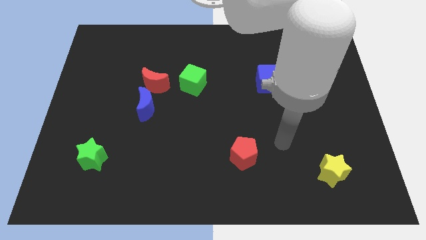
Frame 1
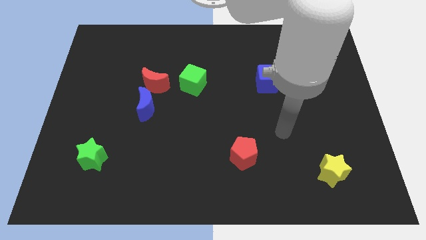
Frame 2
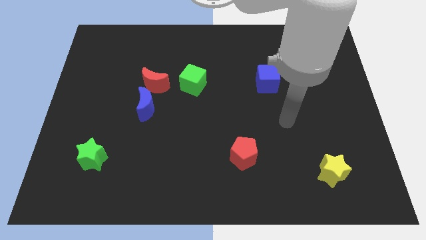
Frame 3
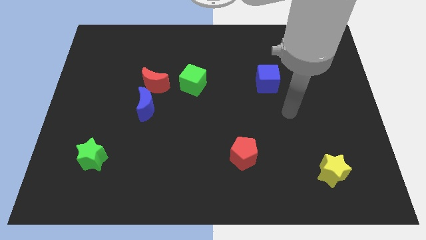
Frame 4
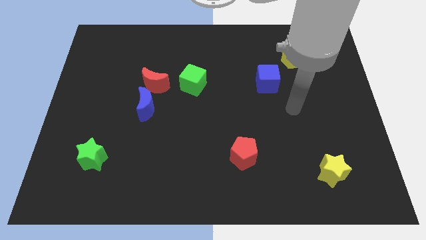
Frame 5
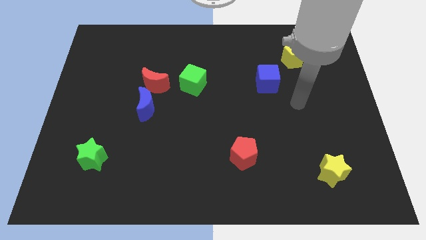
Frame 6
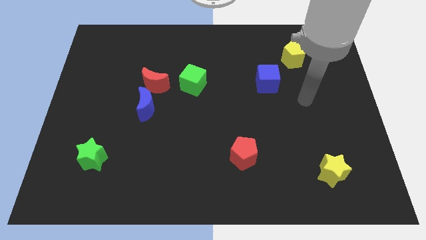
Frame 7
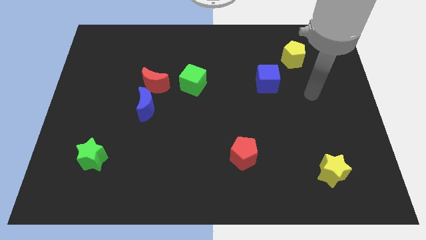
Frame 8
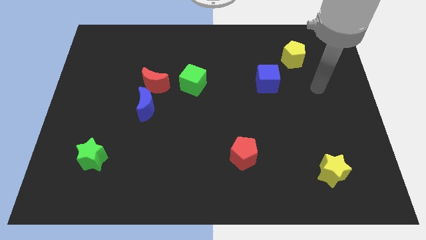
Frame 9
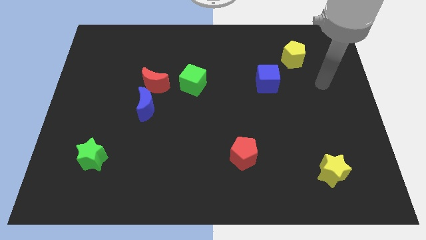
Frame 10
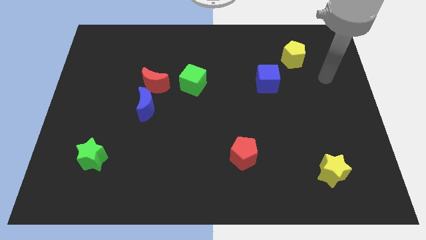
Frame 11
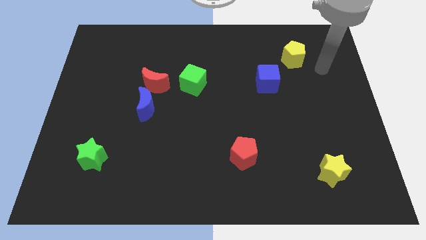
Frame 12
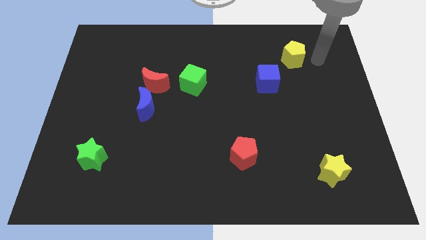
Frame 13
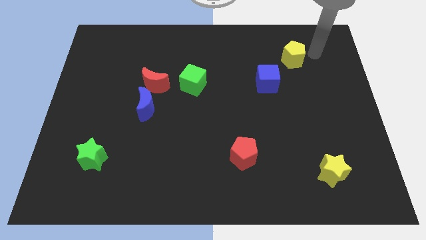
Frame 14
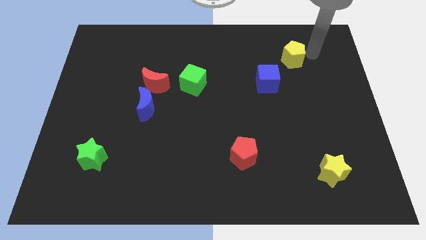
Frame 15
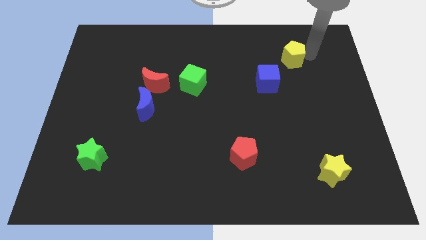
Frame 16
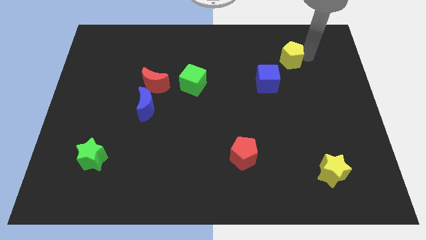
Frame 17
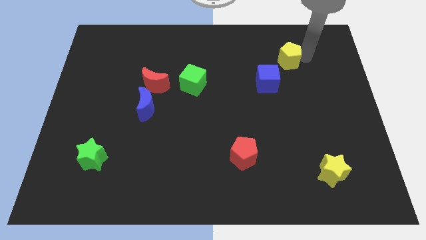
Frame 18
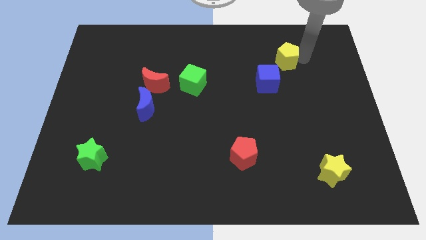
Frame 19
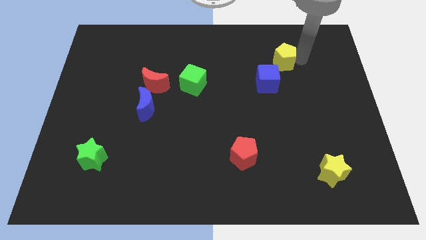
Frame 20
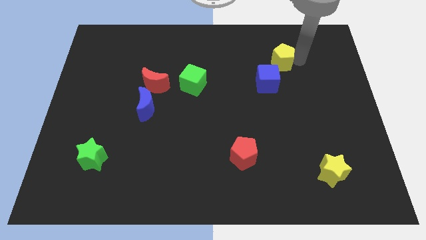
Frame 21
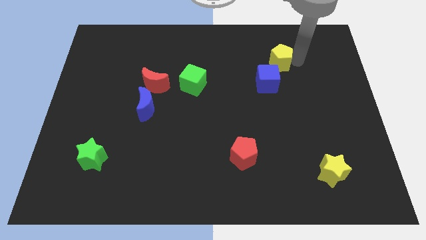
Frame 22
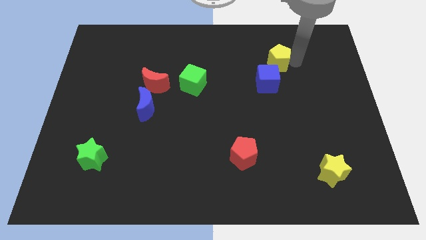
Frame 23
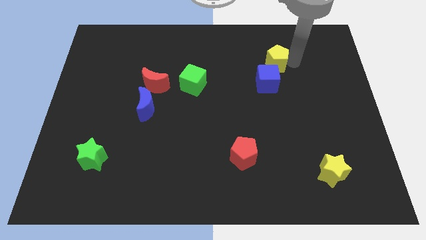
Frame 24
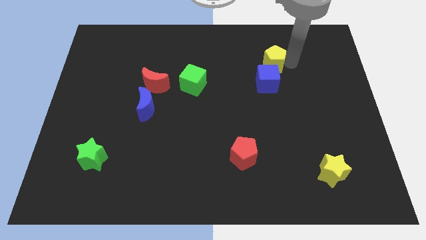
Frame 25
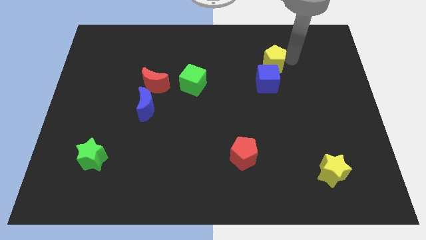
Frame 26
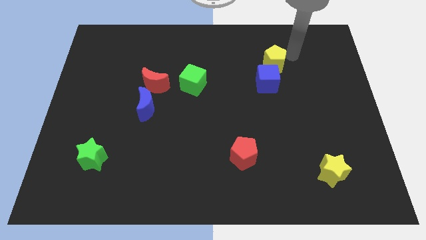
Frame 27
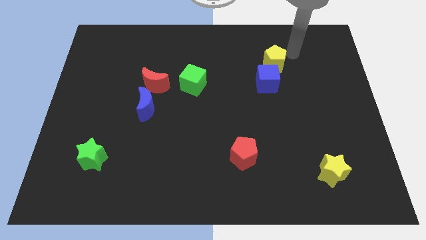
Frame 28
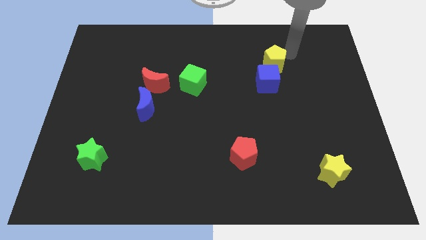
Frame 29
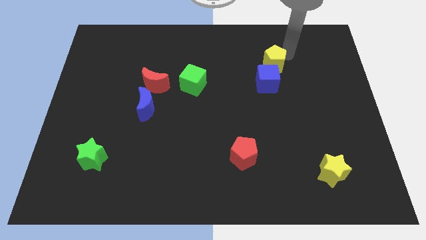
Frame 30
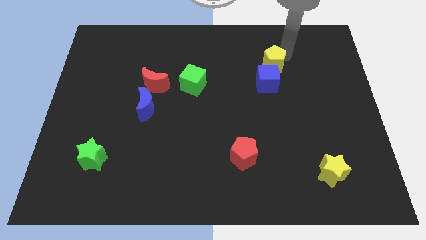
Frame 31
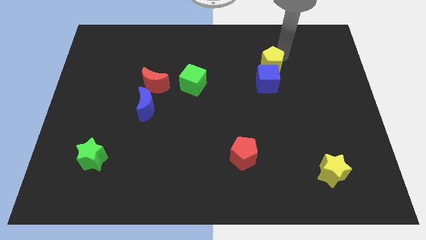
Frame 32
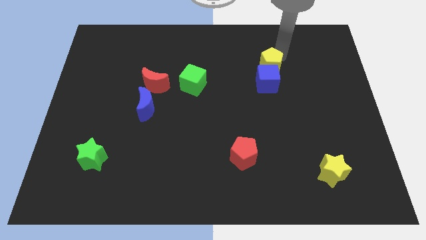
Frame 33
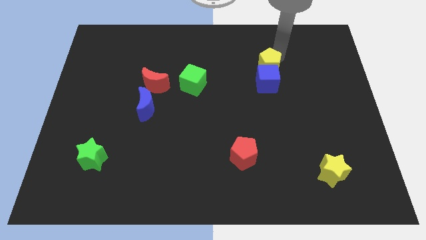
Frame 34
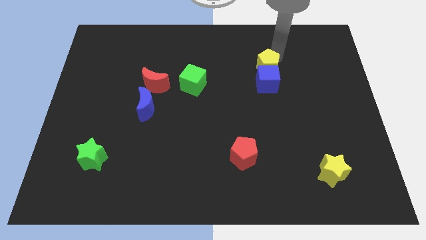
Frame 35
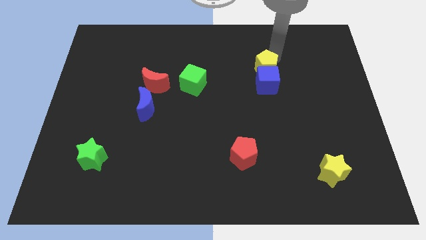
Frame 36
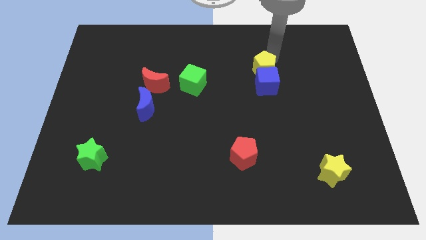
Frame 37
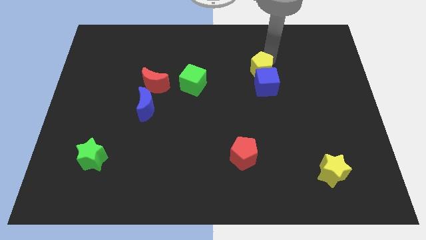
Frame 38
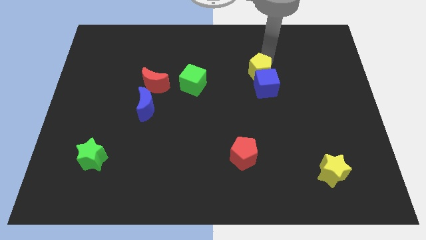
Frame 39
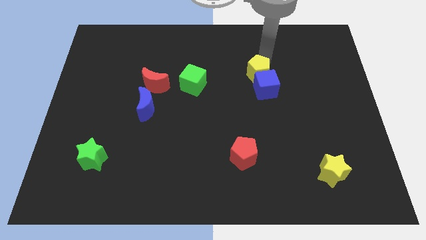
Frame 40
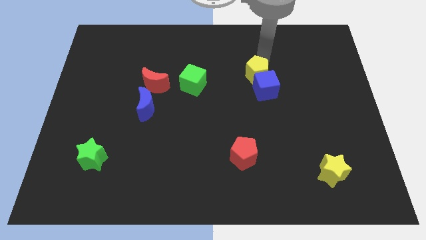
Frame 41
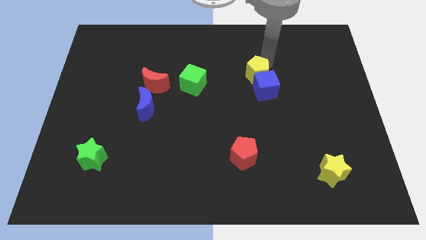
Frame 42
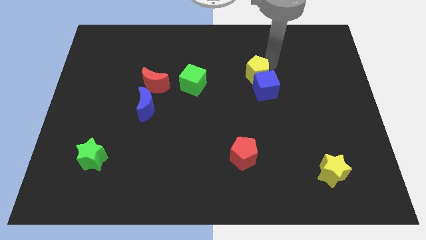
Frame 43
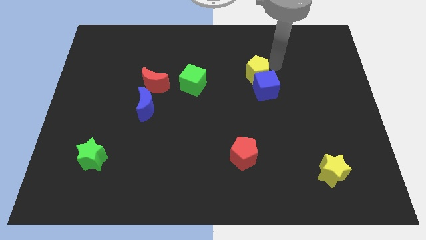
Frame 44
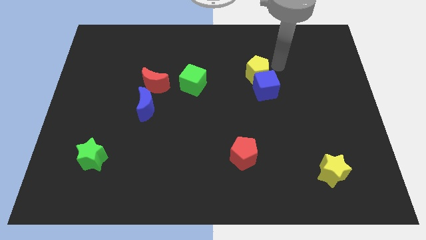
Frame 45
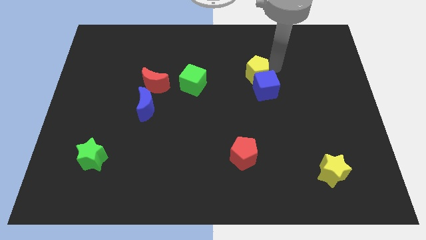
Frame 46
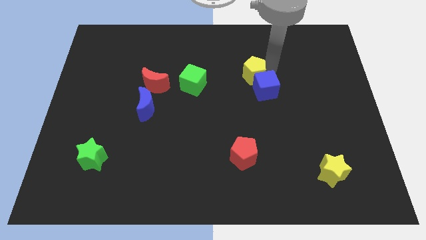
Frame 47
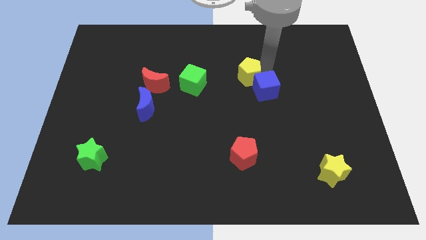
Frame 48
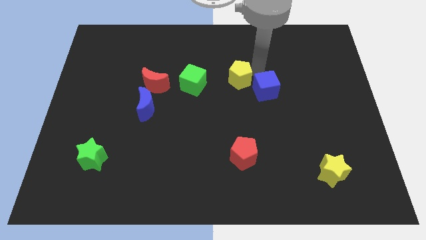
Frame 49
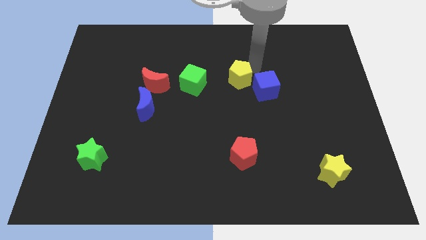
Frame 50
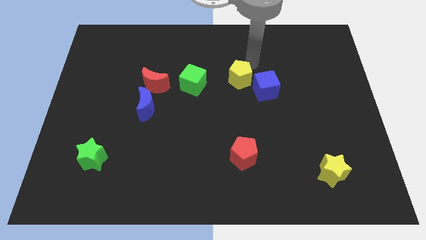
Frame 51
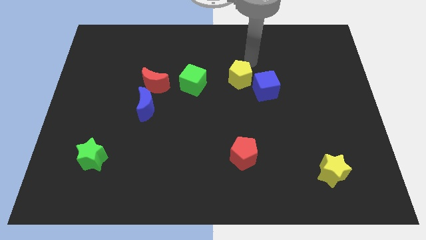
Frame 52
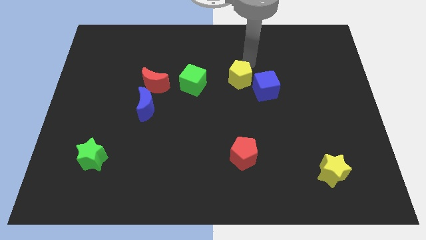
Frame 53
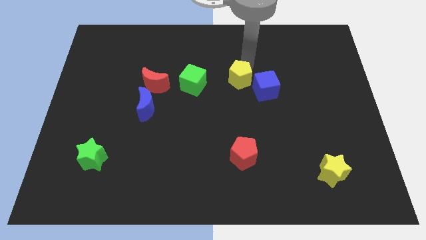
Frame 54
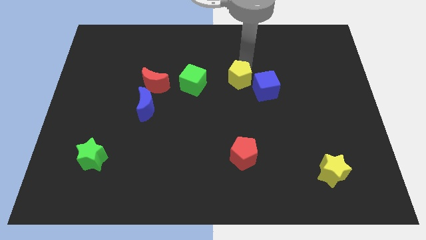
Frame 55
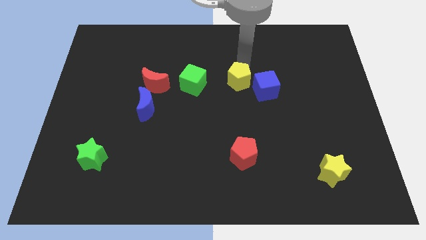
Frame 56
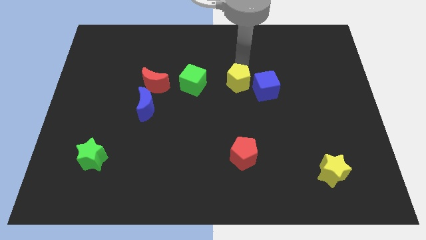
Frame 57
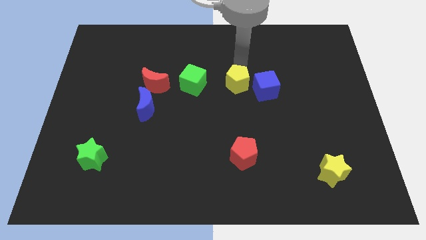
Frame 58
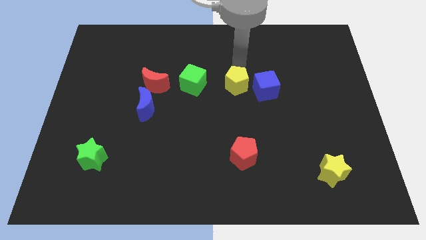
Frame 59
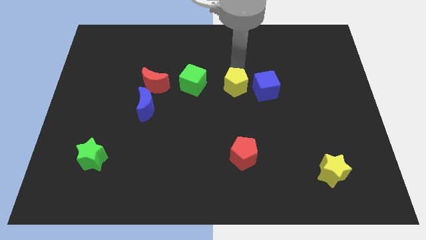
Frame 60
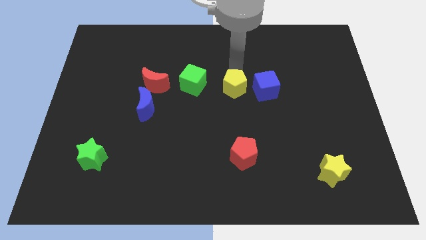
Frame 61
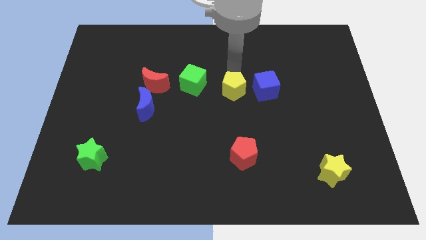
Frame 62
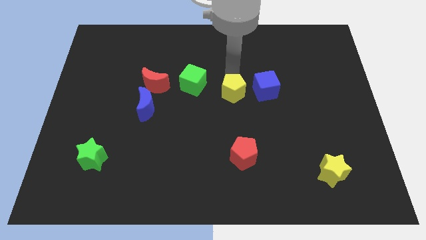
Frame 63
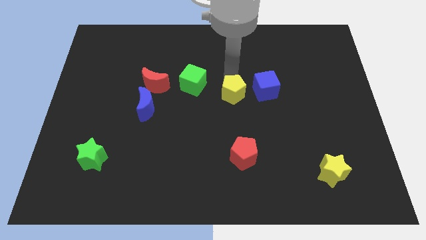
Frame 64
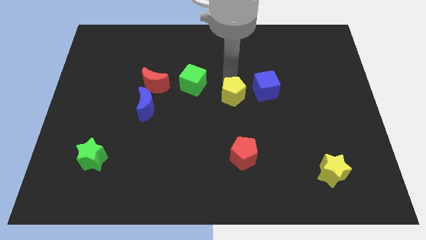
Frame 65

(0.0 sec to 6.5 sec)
move the yellow pentagon down and left

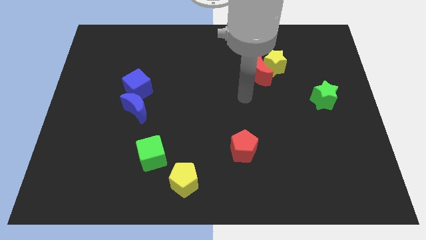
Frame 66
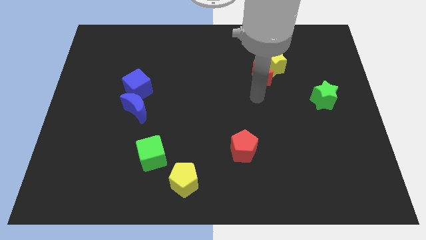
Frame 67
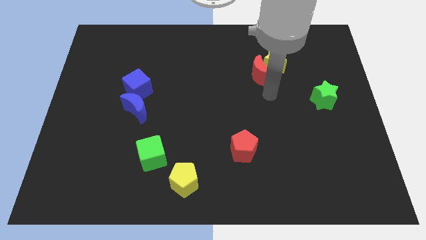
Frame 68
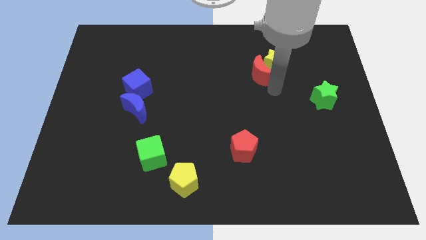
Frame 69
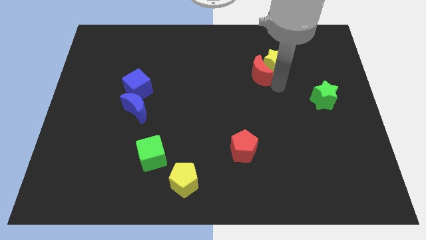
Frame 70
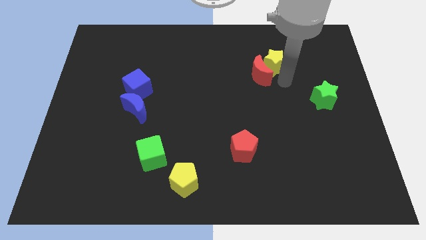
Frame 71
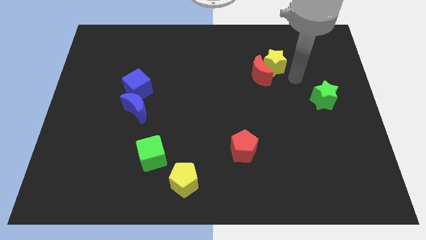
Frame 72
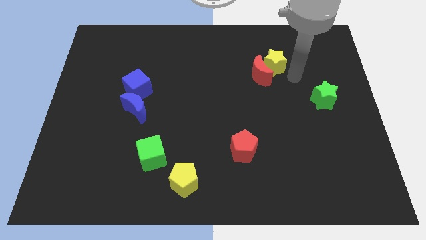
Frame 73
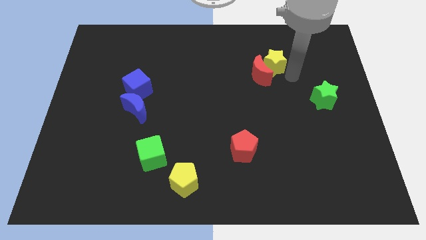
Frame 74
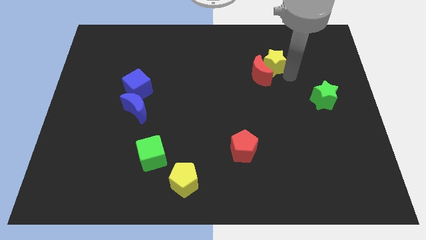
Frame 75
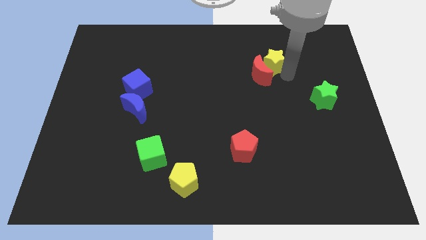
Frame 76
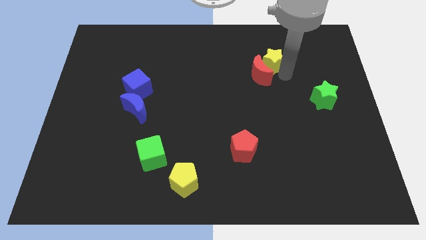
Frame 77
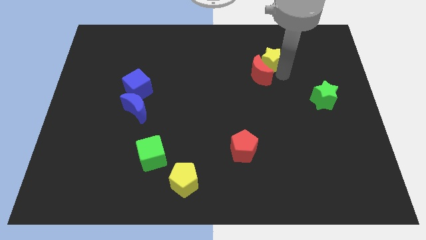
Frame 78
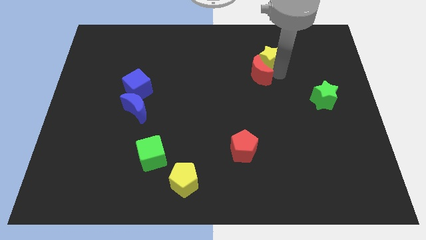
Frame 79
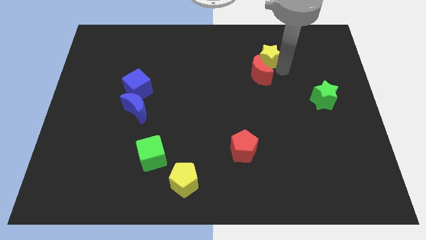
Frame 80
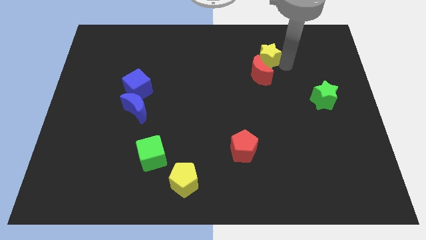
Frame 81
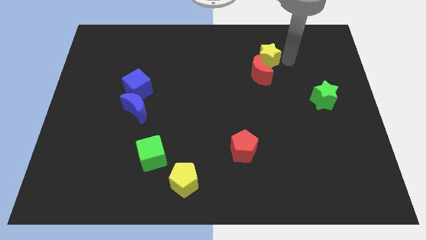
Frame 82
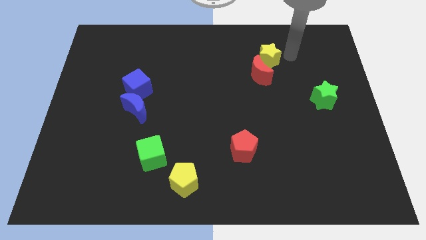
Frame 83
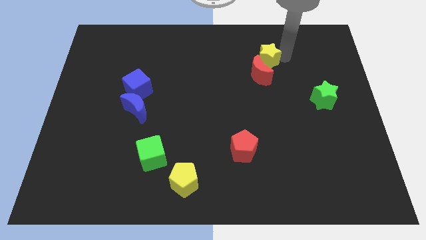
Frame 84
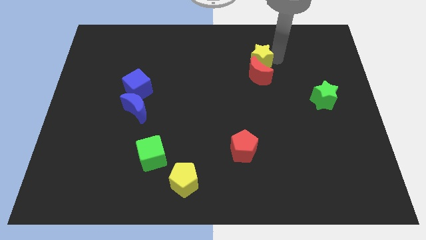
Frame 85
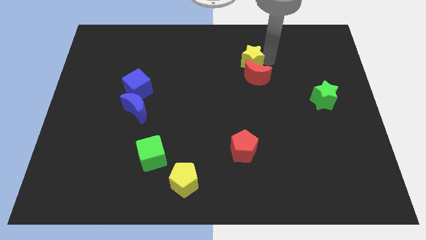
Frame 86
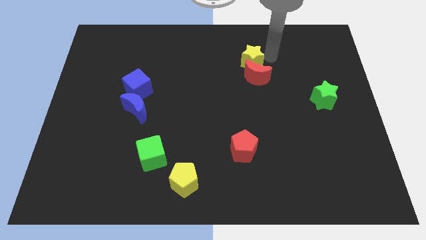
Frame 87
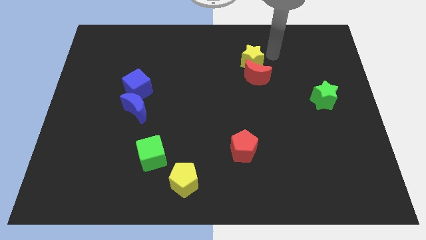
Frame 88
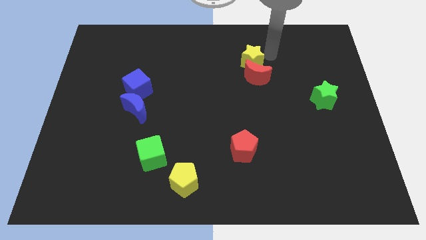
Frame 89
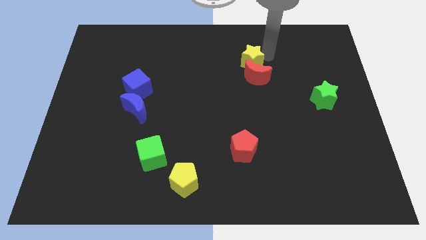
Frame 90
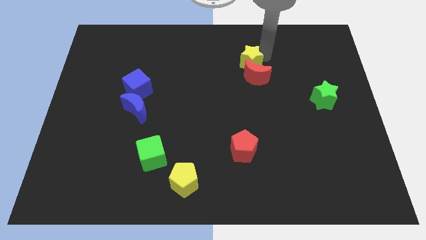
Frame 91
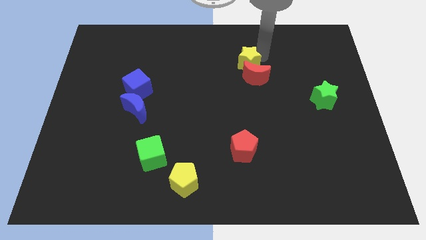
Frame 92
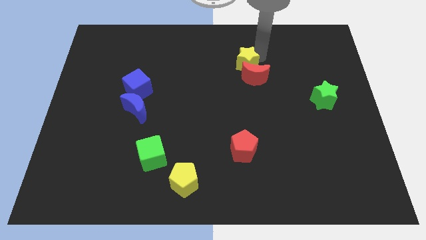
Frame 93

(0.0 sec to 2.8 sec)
slightly slide the yellow star left
